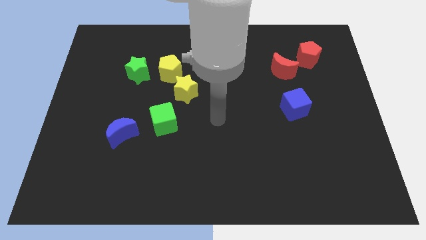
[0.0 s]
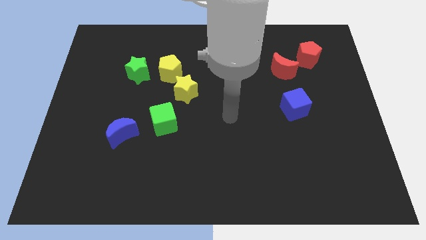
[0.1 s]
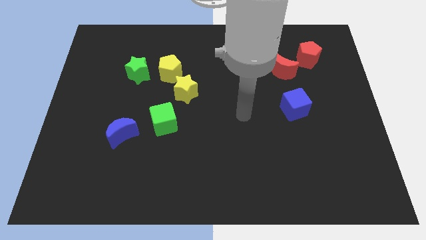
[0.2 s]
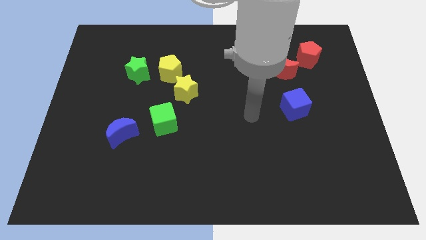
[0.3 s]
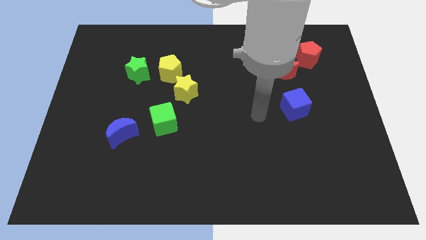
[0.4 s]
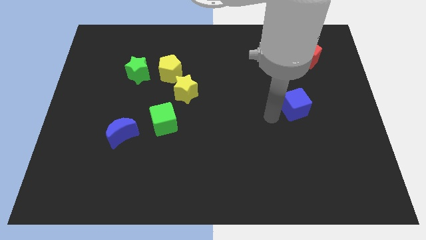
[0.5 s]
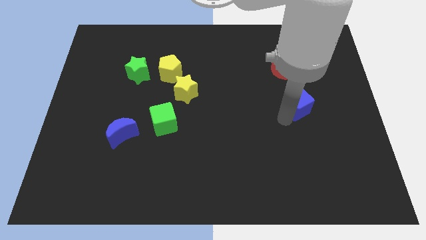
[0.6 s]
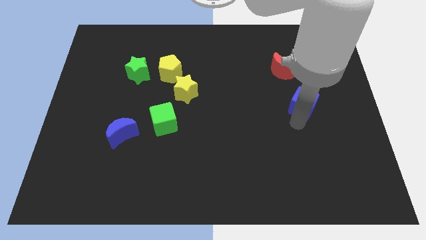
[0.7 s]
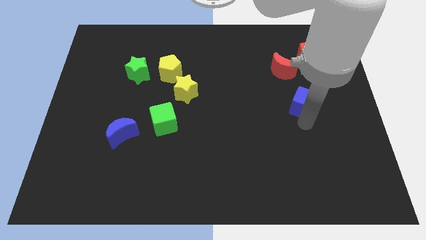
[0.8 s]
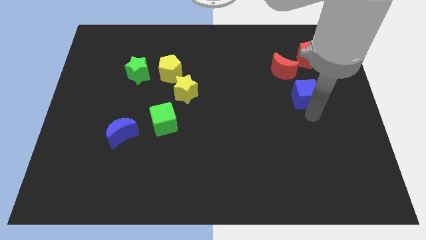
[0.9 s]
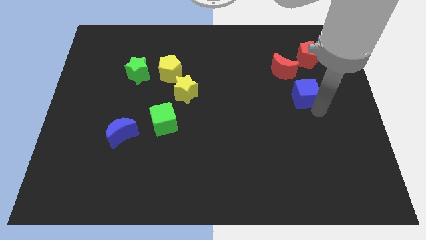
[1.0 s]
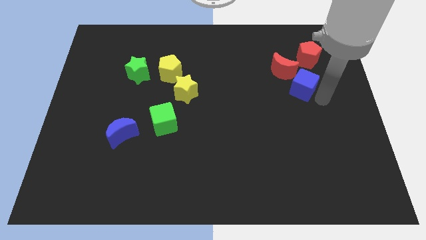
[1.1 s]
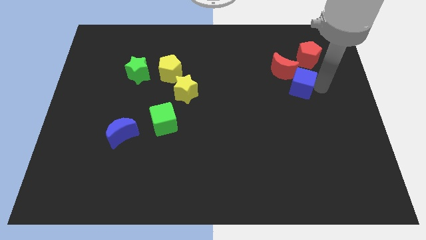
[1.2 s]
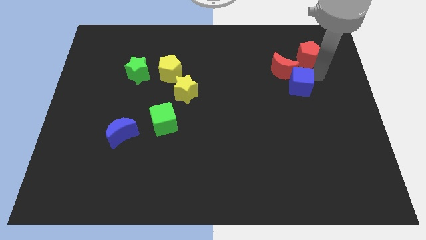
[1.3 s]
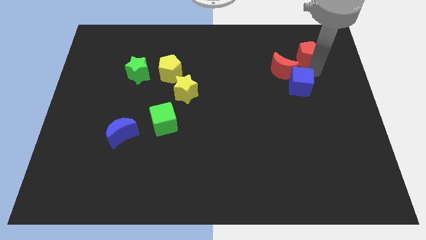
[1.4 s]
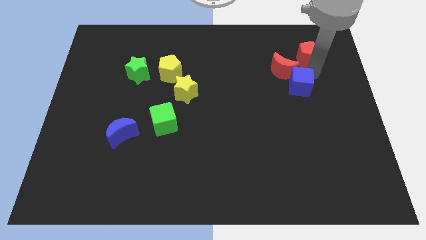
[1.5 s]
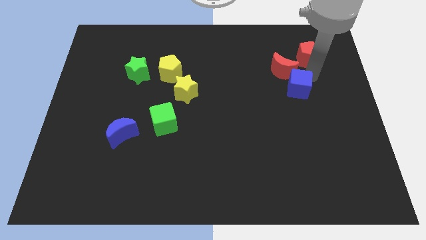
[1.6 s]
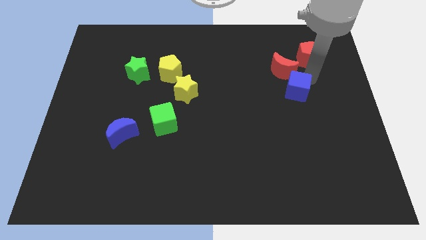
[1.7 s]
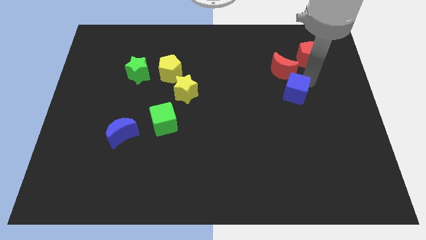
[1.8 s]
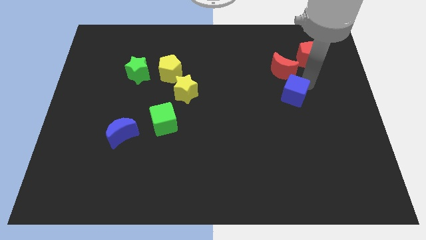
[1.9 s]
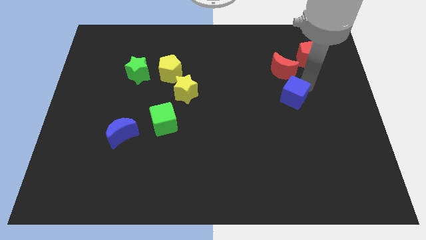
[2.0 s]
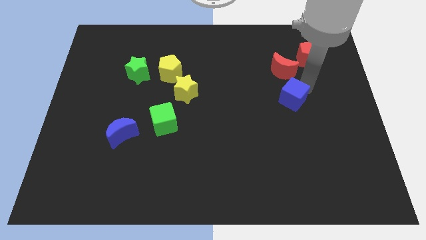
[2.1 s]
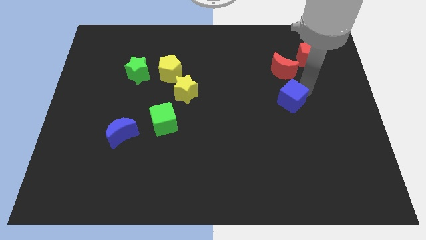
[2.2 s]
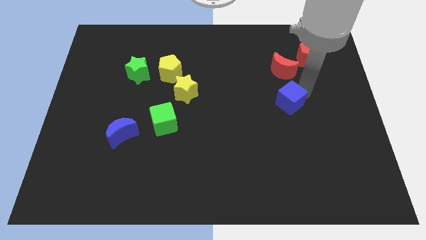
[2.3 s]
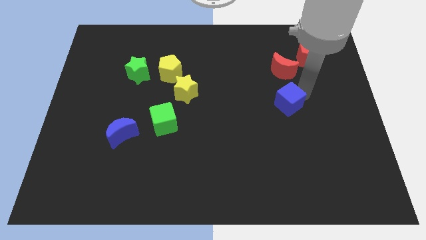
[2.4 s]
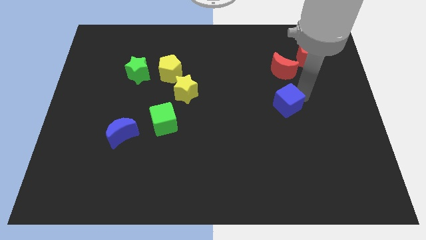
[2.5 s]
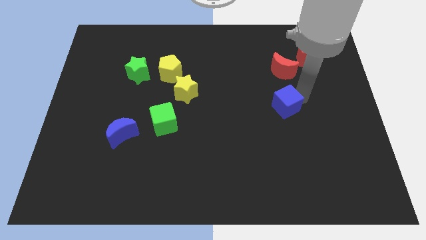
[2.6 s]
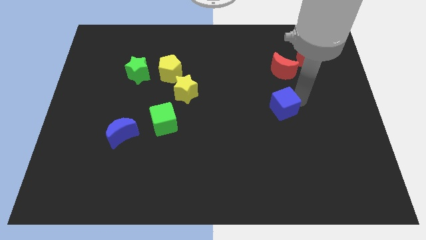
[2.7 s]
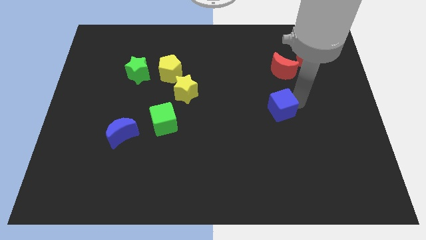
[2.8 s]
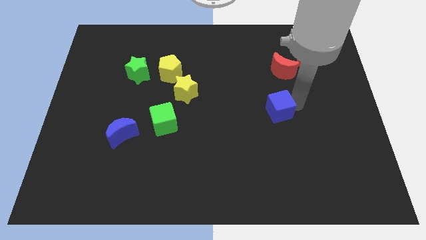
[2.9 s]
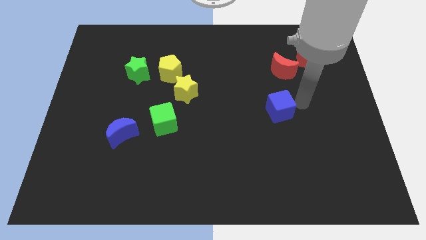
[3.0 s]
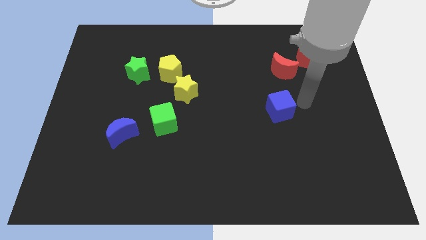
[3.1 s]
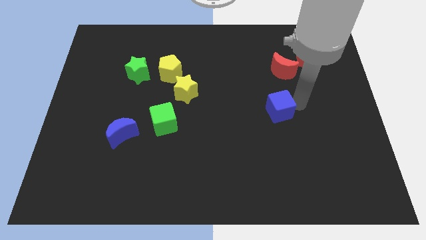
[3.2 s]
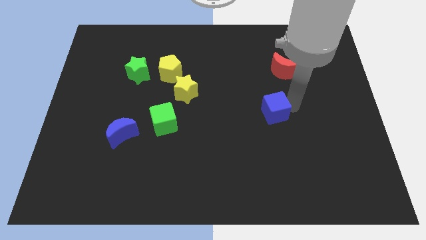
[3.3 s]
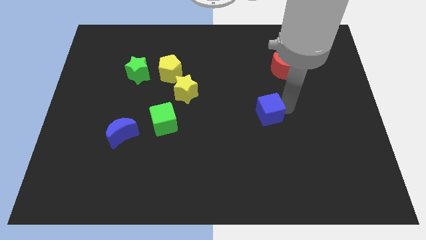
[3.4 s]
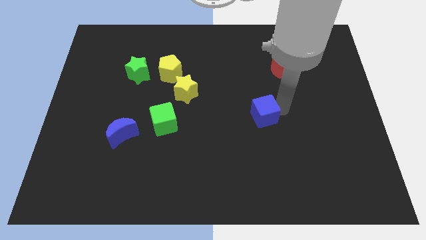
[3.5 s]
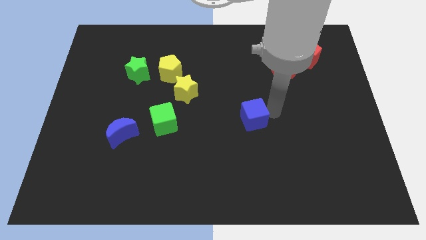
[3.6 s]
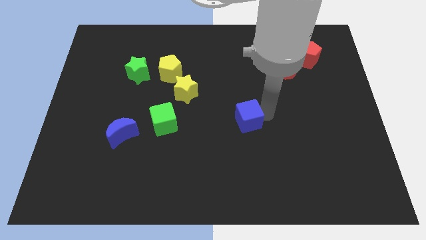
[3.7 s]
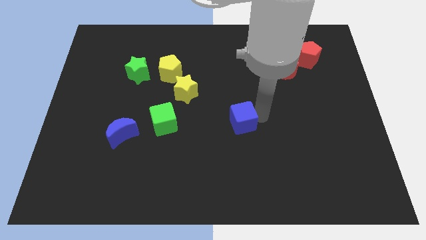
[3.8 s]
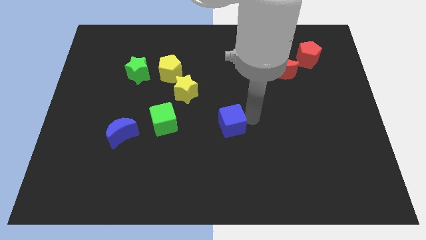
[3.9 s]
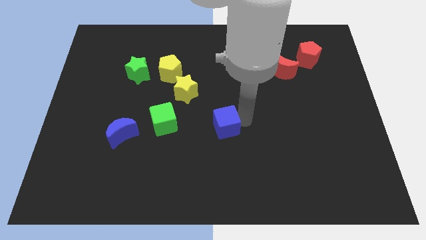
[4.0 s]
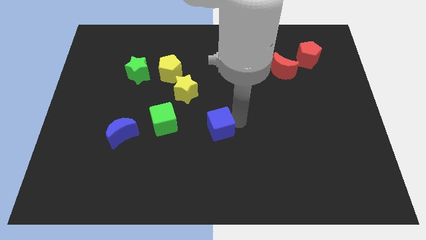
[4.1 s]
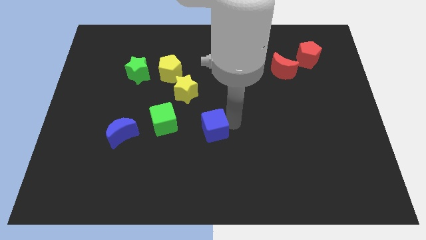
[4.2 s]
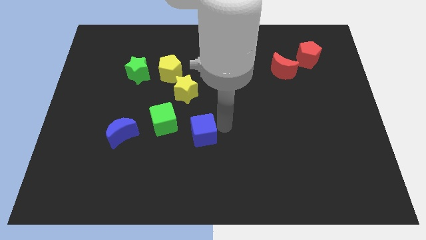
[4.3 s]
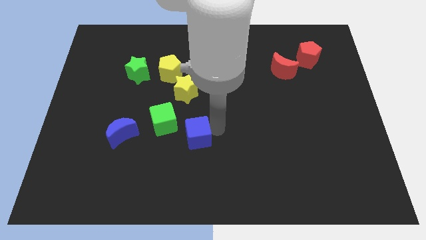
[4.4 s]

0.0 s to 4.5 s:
move the blue cube to the left

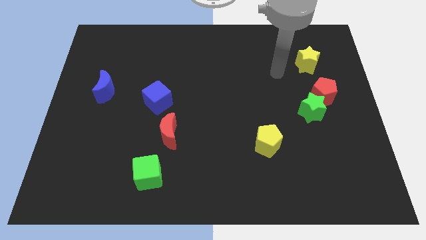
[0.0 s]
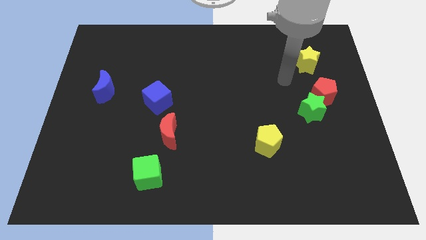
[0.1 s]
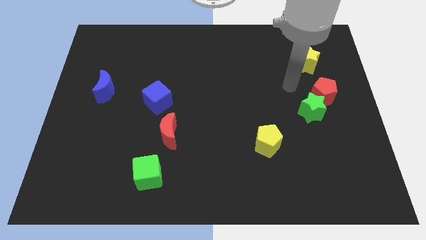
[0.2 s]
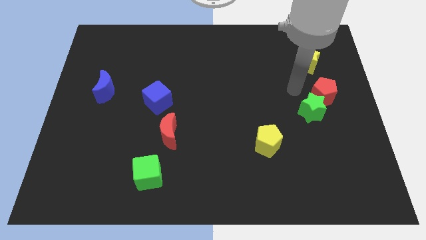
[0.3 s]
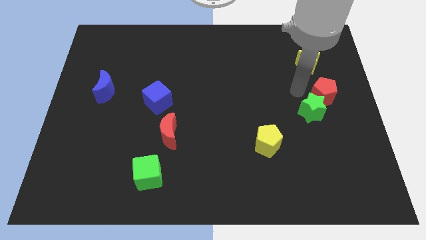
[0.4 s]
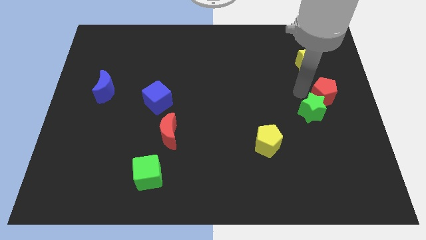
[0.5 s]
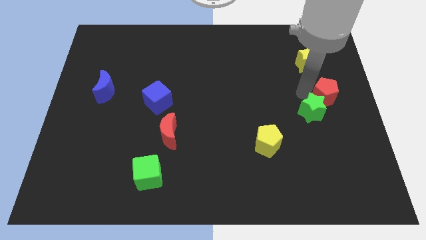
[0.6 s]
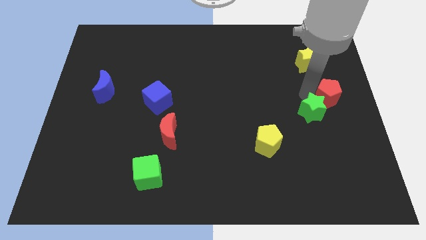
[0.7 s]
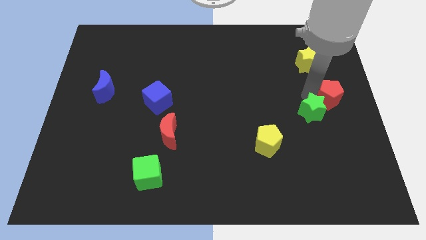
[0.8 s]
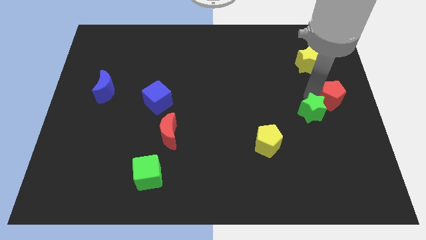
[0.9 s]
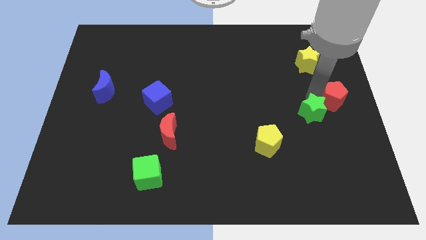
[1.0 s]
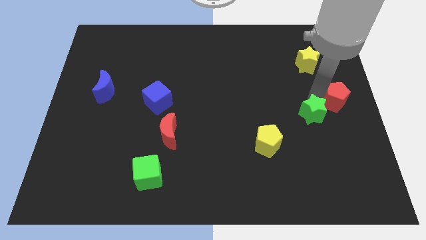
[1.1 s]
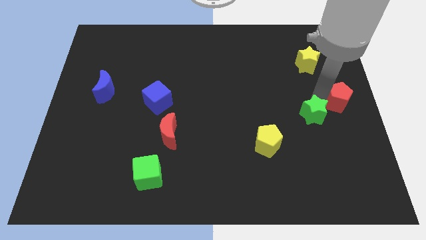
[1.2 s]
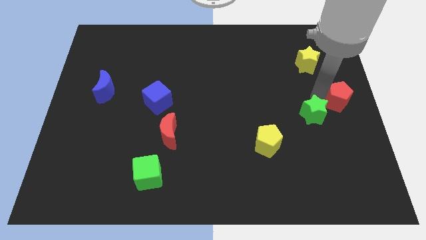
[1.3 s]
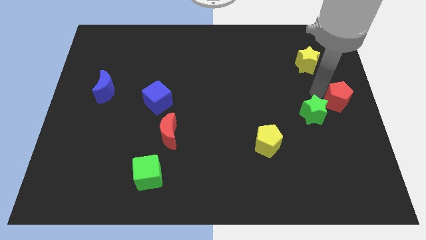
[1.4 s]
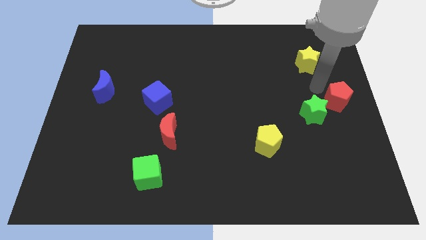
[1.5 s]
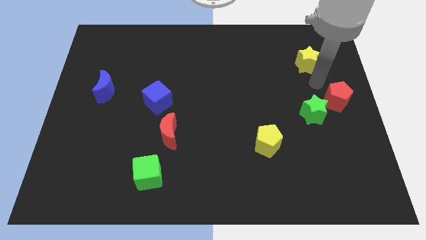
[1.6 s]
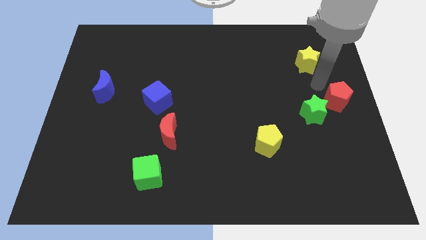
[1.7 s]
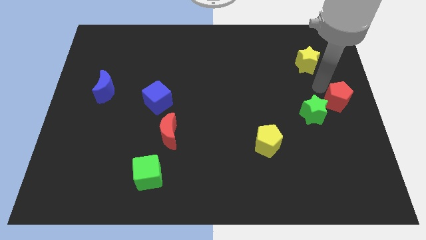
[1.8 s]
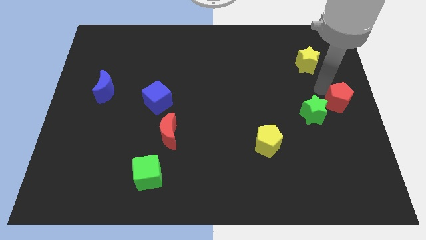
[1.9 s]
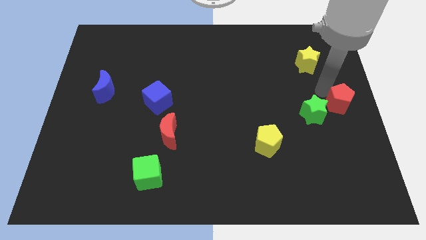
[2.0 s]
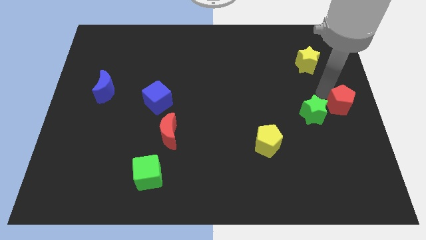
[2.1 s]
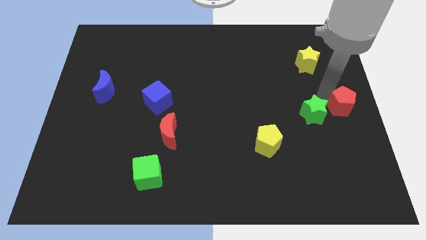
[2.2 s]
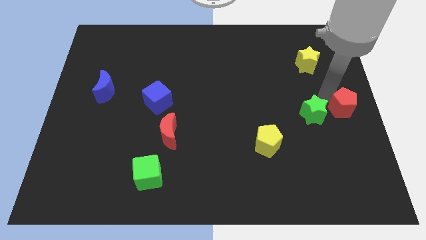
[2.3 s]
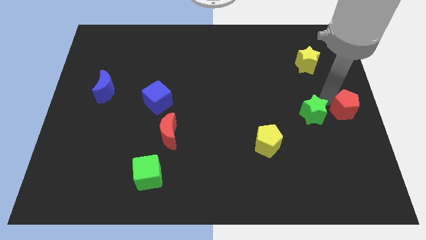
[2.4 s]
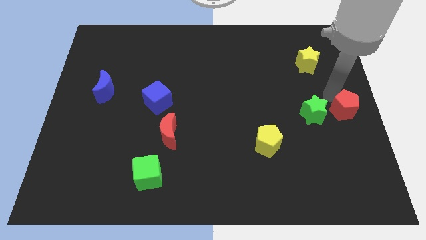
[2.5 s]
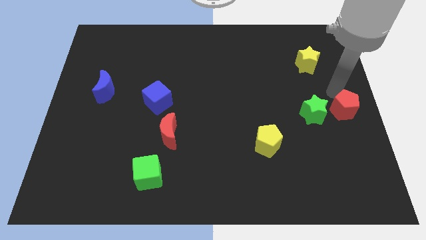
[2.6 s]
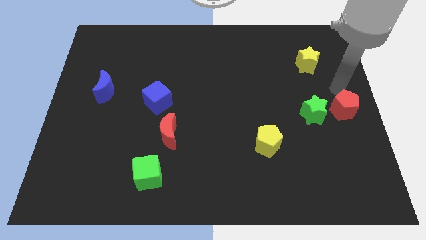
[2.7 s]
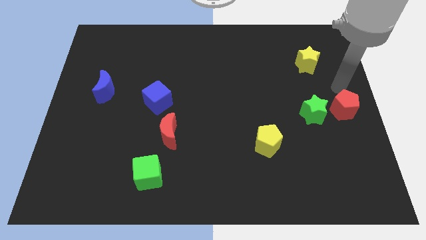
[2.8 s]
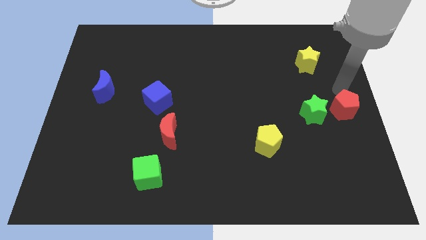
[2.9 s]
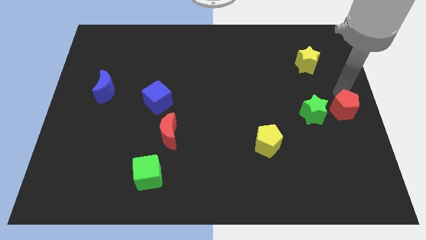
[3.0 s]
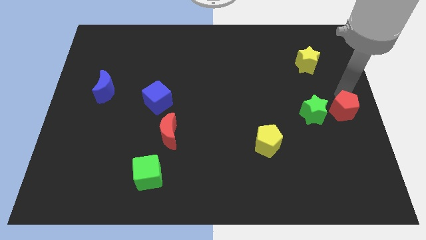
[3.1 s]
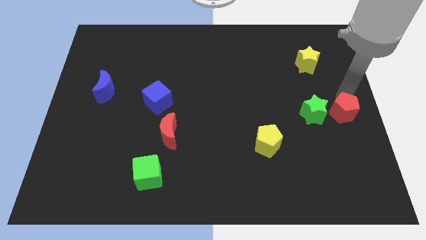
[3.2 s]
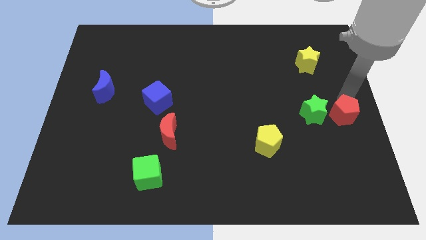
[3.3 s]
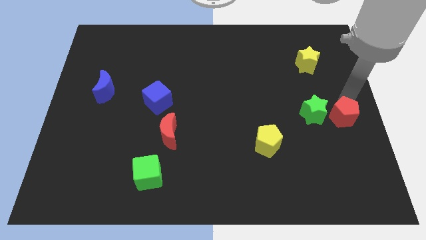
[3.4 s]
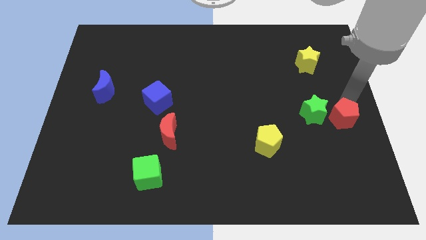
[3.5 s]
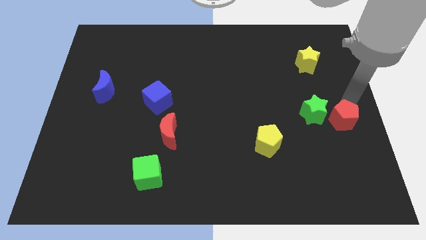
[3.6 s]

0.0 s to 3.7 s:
move the red pentagon downwards a little
